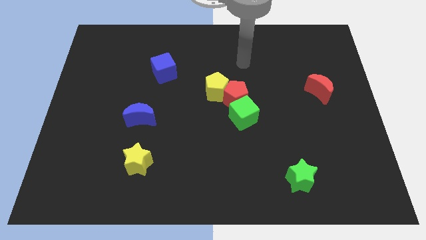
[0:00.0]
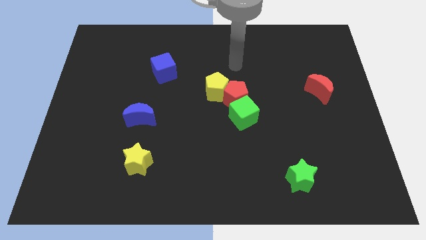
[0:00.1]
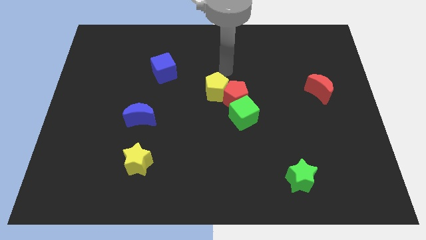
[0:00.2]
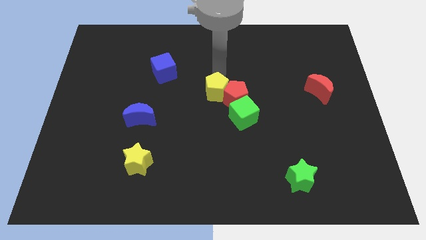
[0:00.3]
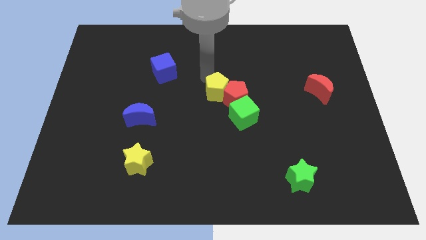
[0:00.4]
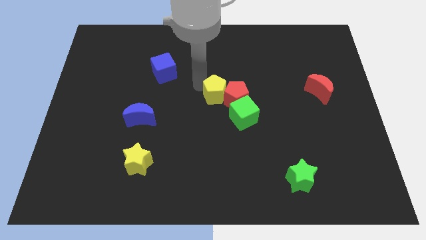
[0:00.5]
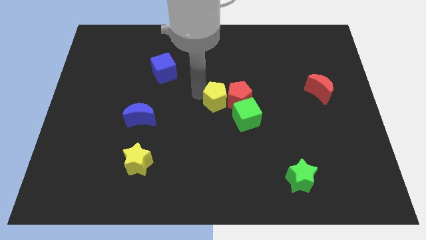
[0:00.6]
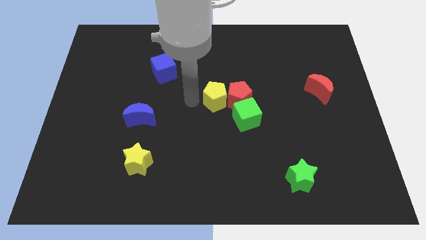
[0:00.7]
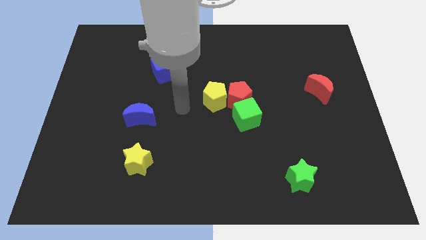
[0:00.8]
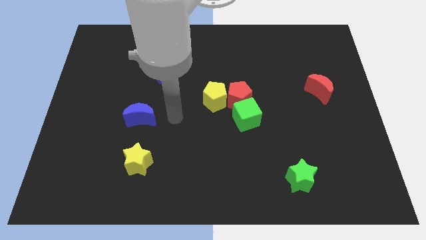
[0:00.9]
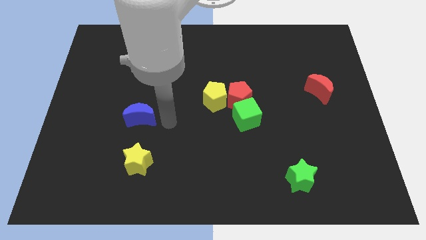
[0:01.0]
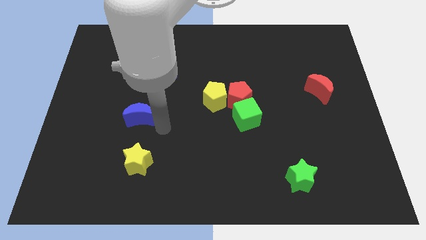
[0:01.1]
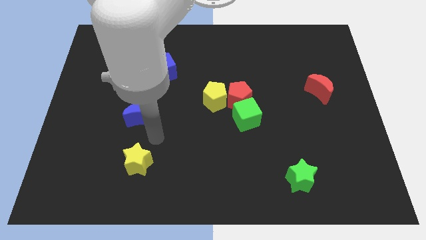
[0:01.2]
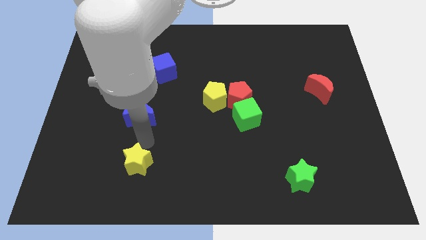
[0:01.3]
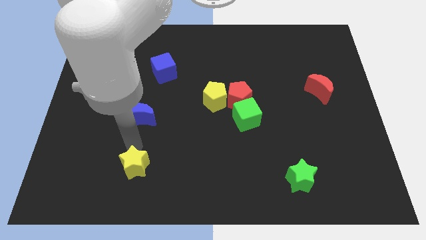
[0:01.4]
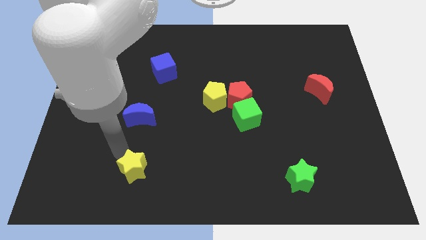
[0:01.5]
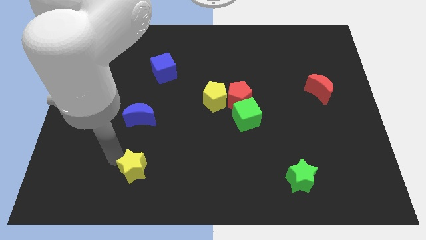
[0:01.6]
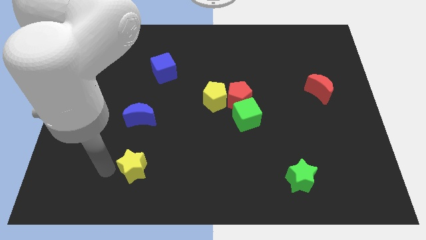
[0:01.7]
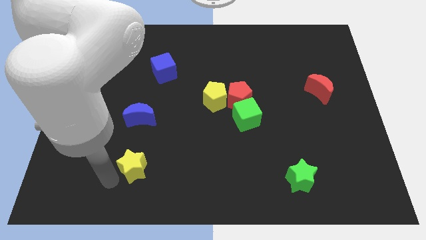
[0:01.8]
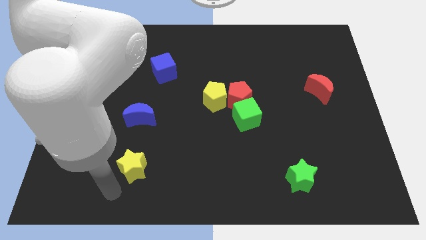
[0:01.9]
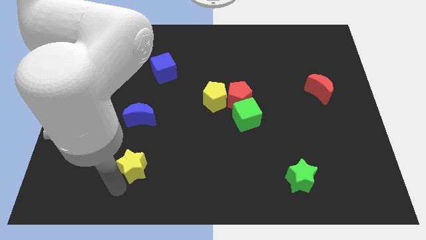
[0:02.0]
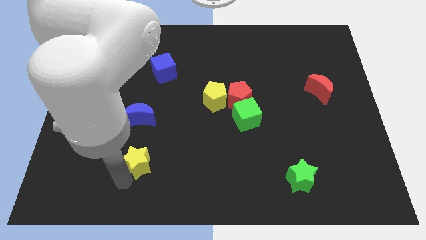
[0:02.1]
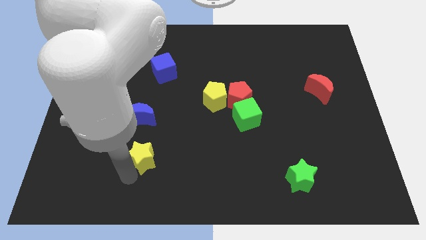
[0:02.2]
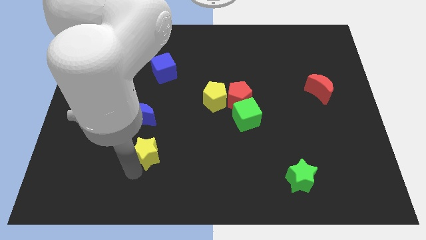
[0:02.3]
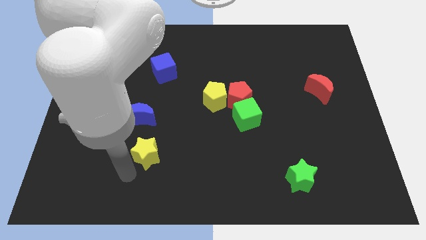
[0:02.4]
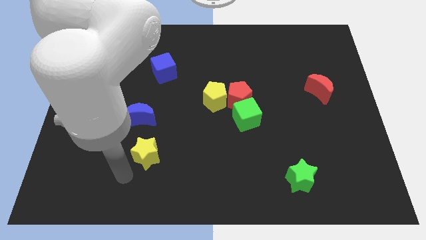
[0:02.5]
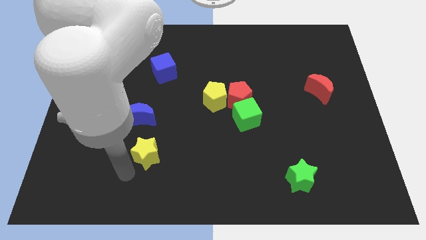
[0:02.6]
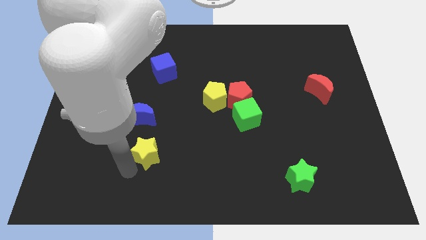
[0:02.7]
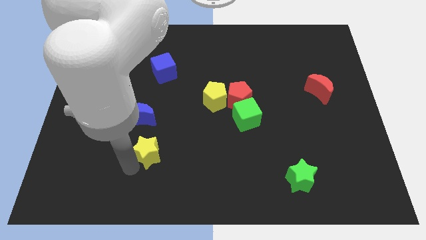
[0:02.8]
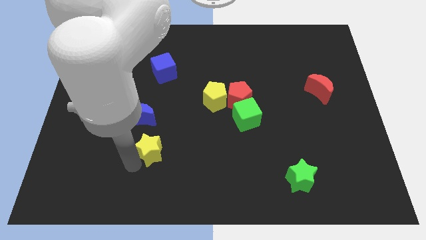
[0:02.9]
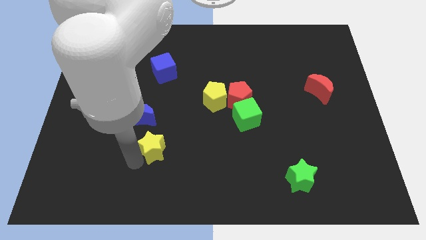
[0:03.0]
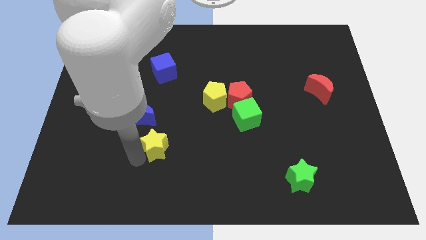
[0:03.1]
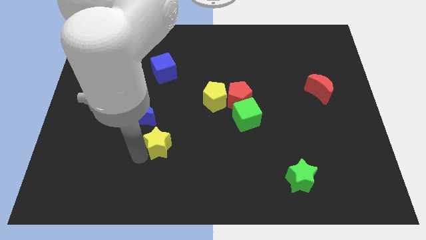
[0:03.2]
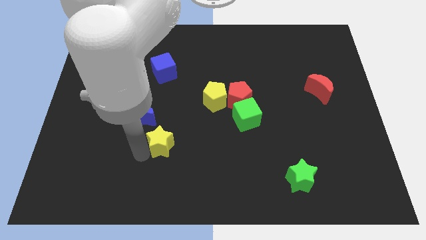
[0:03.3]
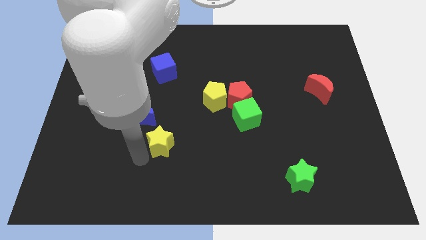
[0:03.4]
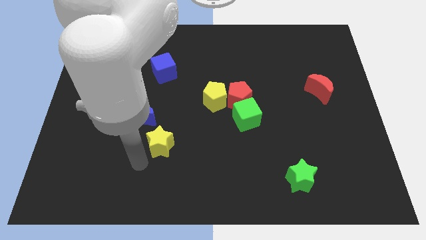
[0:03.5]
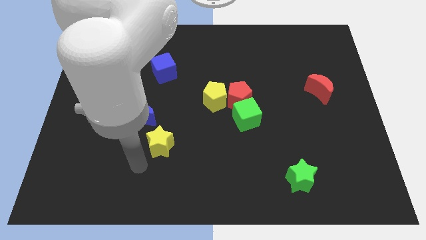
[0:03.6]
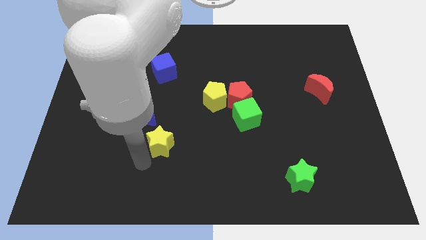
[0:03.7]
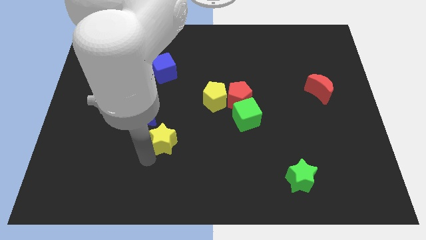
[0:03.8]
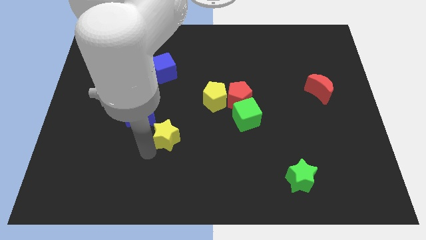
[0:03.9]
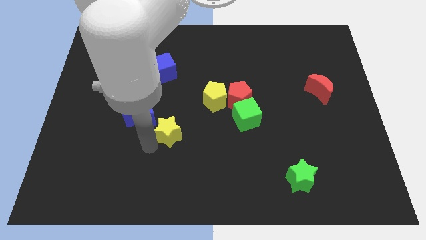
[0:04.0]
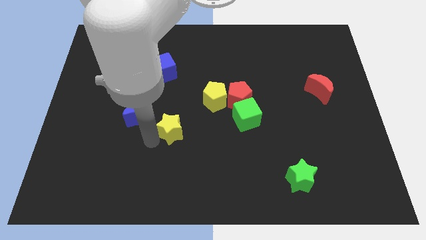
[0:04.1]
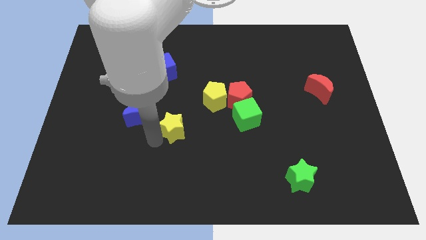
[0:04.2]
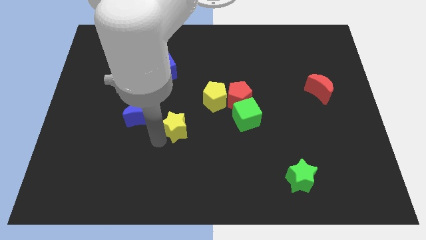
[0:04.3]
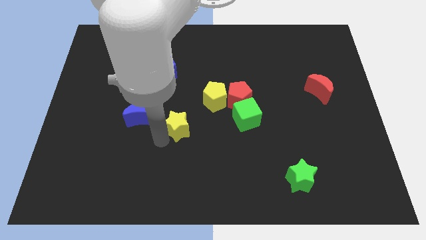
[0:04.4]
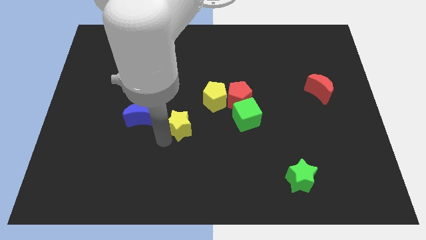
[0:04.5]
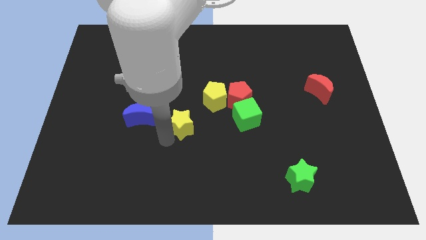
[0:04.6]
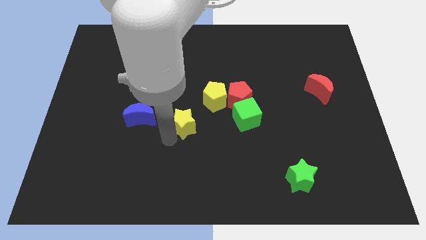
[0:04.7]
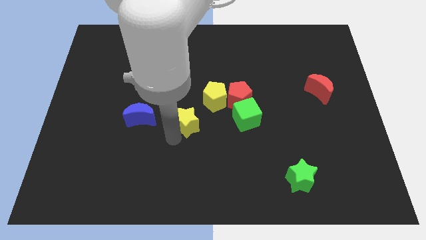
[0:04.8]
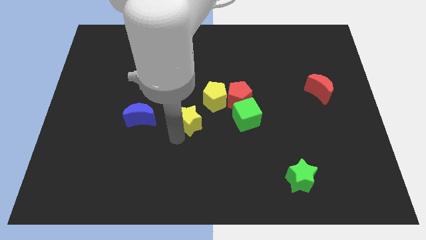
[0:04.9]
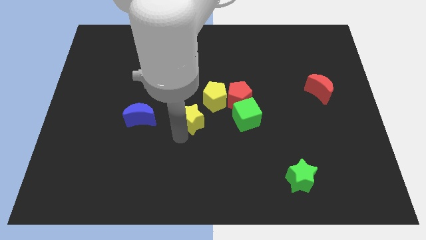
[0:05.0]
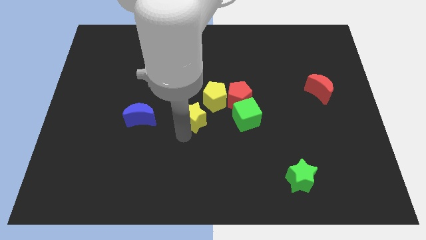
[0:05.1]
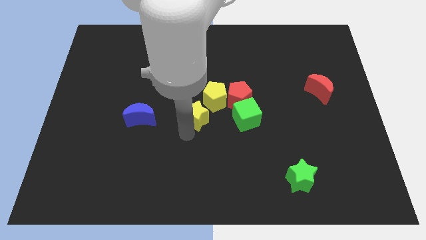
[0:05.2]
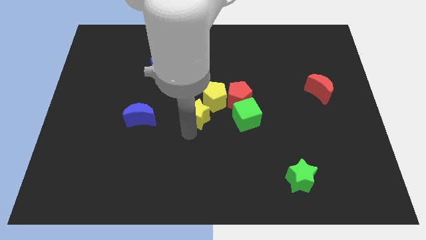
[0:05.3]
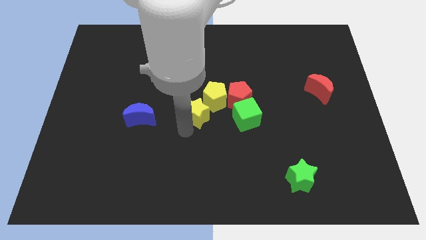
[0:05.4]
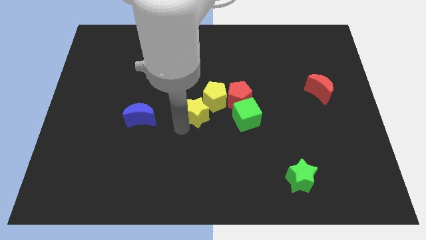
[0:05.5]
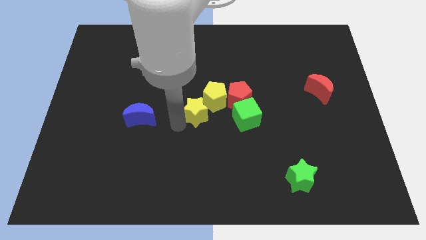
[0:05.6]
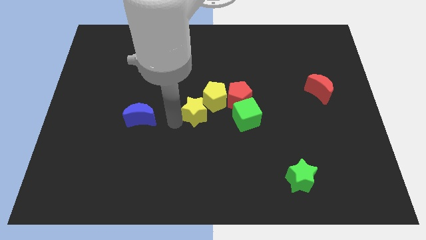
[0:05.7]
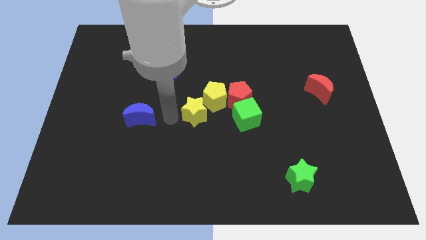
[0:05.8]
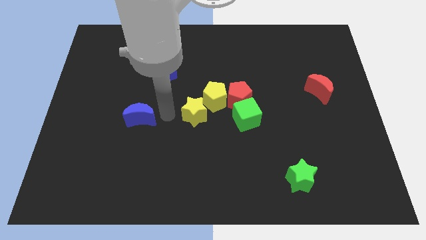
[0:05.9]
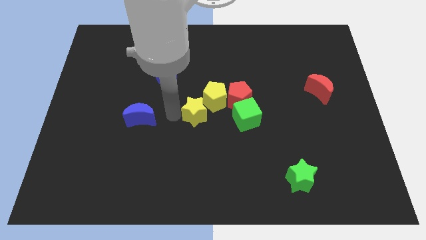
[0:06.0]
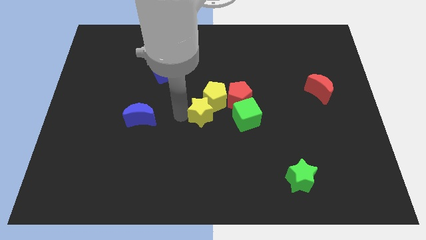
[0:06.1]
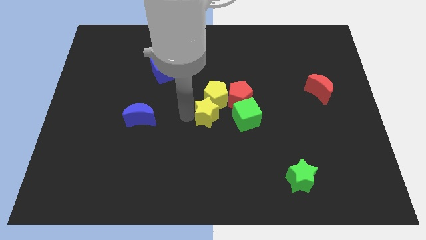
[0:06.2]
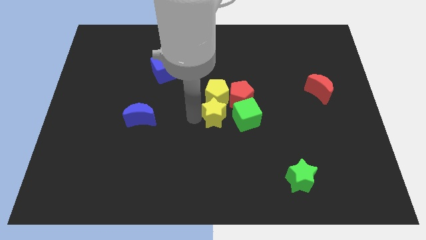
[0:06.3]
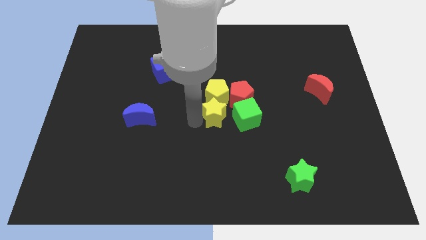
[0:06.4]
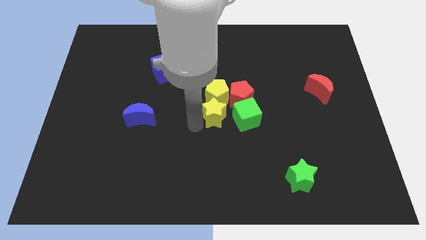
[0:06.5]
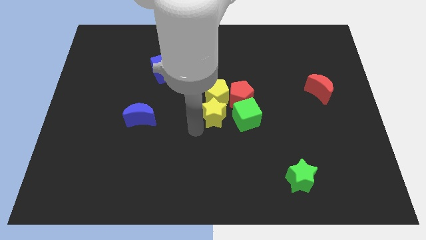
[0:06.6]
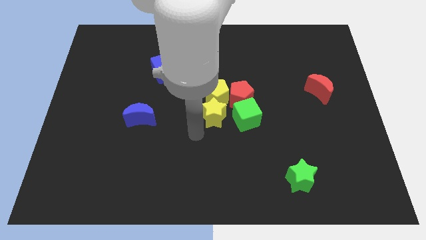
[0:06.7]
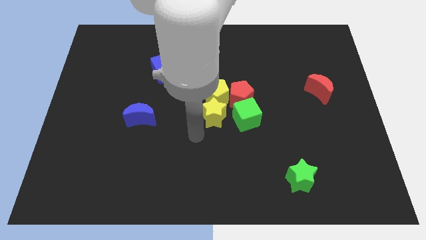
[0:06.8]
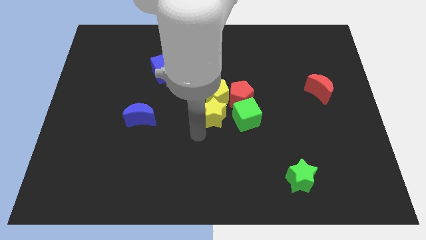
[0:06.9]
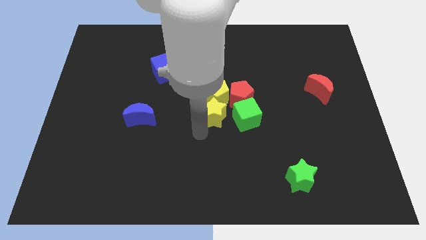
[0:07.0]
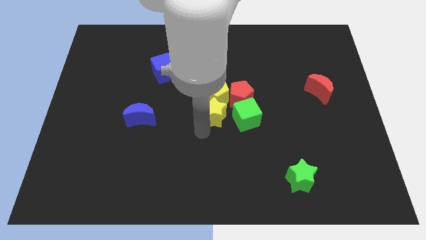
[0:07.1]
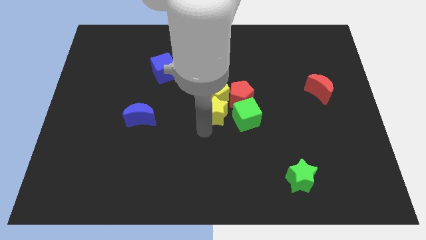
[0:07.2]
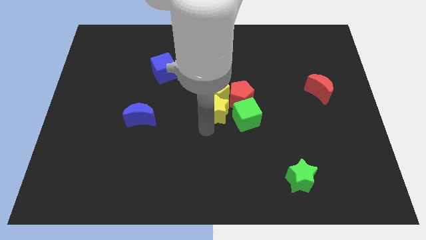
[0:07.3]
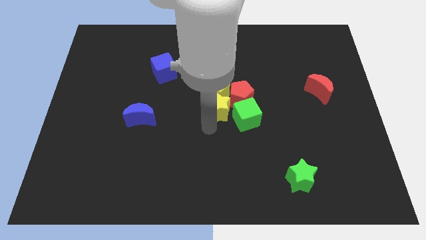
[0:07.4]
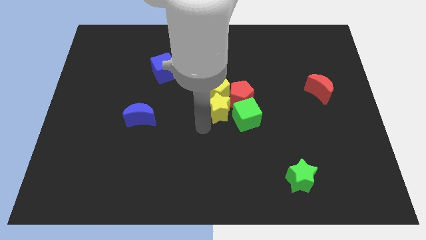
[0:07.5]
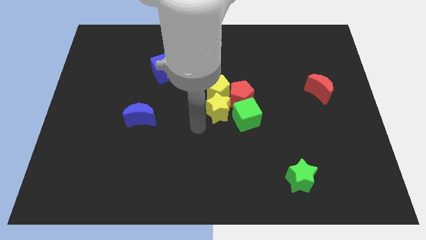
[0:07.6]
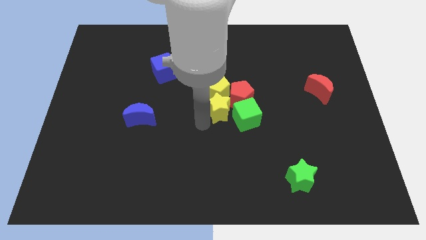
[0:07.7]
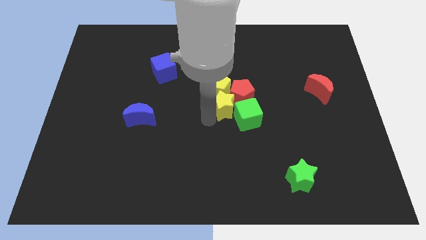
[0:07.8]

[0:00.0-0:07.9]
put the yellow star to the red pentagon
